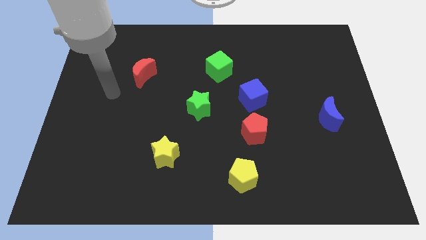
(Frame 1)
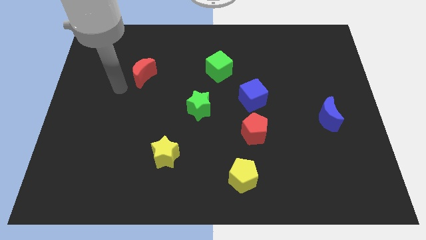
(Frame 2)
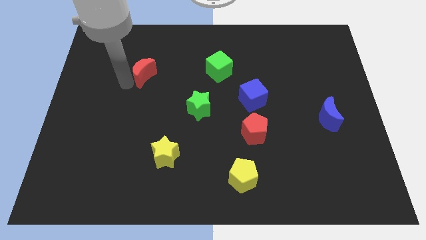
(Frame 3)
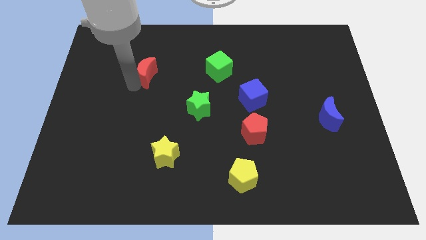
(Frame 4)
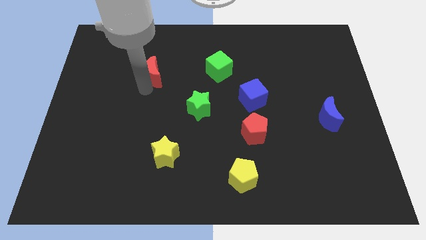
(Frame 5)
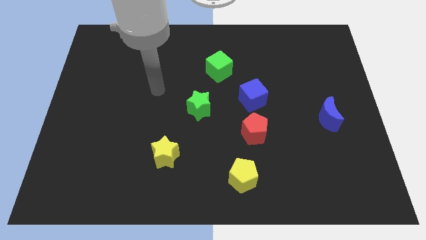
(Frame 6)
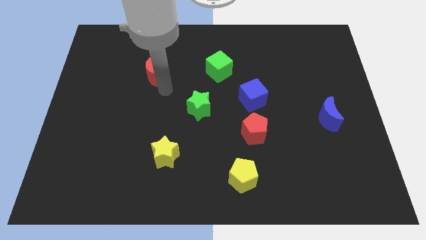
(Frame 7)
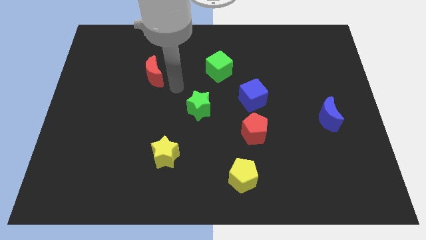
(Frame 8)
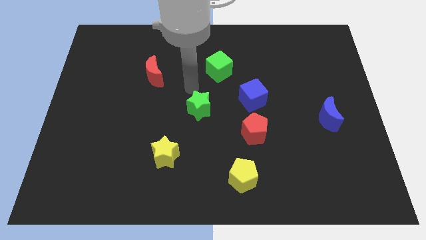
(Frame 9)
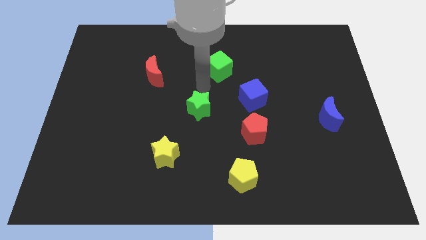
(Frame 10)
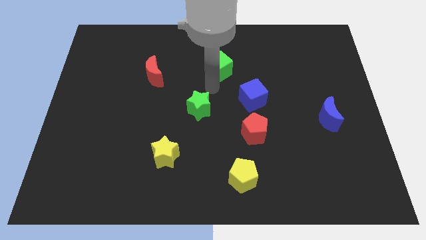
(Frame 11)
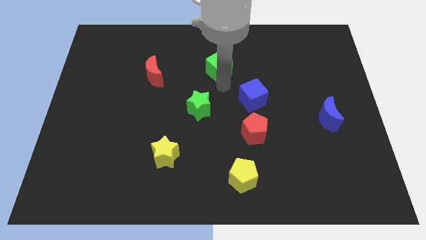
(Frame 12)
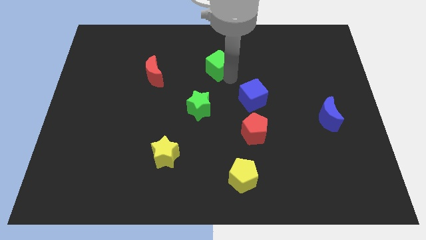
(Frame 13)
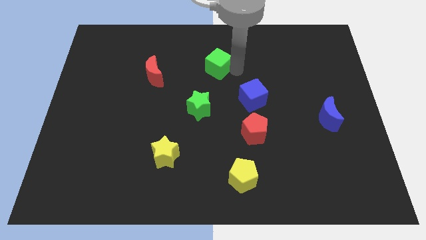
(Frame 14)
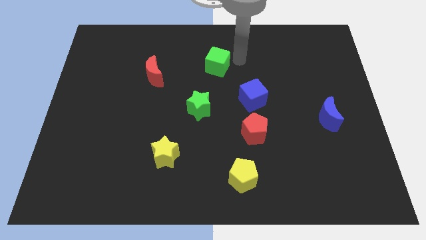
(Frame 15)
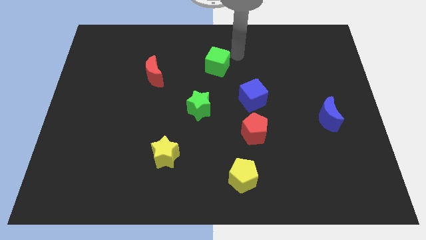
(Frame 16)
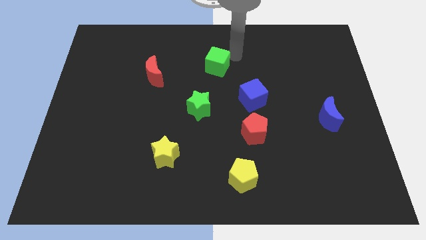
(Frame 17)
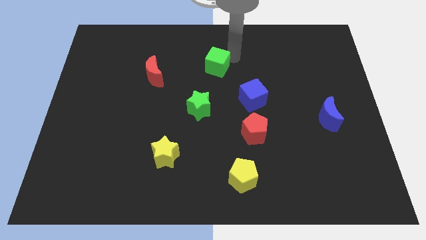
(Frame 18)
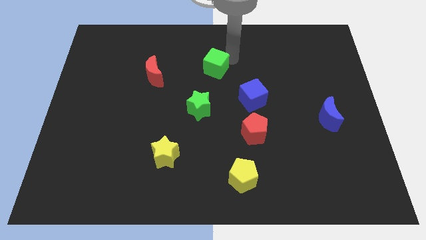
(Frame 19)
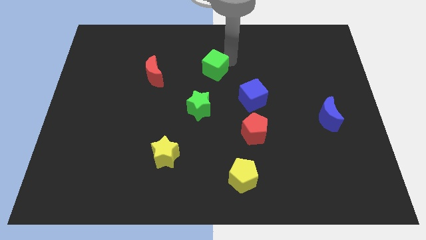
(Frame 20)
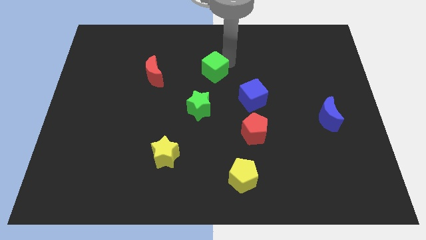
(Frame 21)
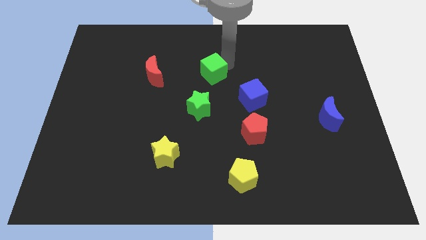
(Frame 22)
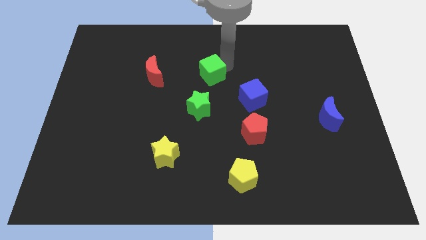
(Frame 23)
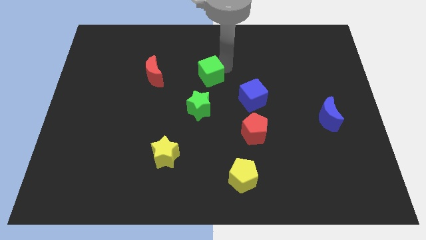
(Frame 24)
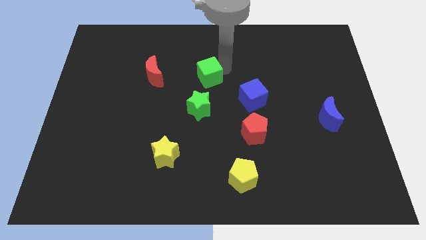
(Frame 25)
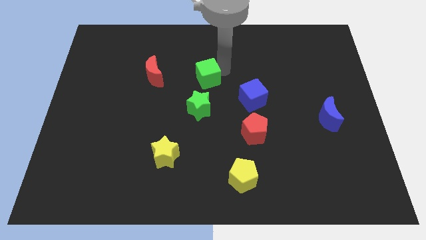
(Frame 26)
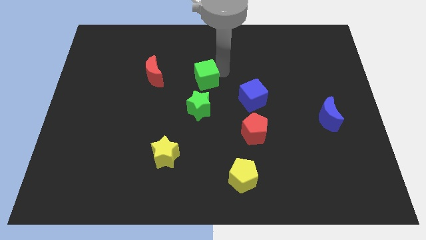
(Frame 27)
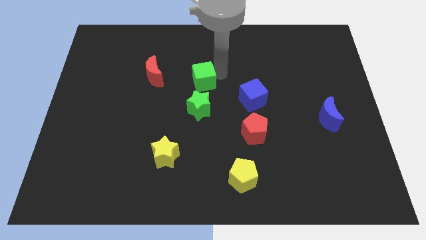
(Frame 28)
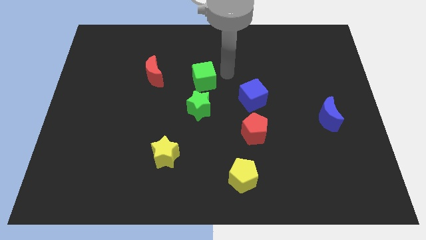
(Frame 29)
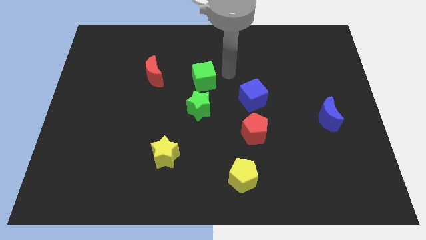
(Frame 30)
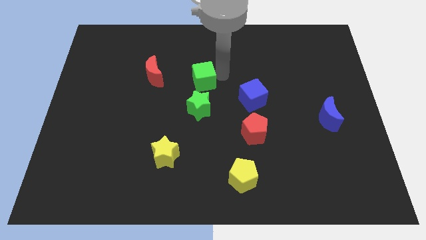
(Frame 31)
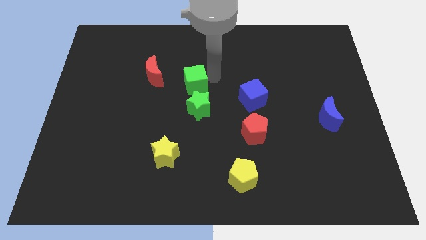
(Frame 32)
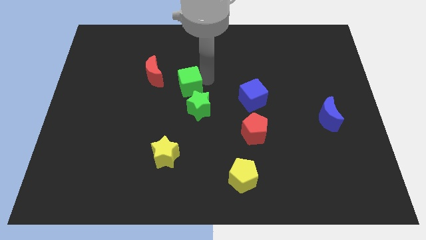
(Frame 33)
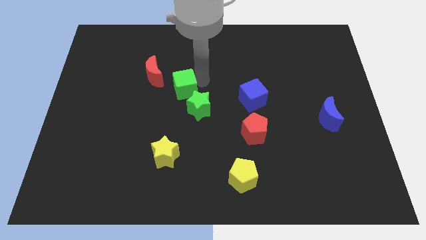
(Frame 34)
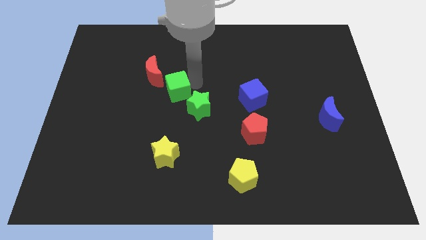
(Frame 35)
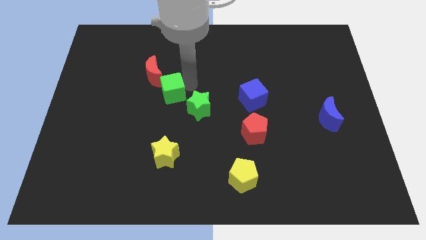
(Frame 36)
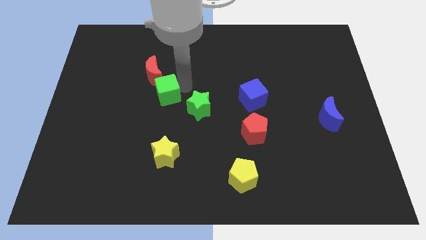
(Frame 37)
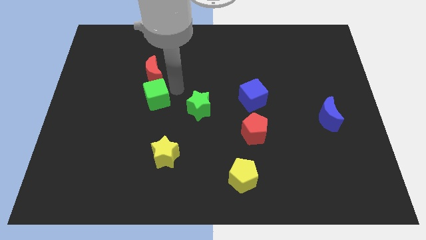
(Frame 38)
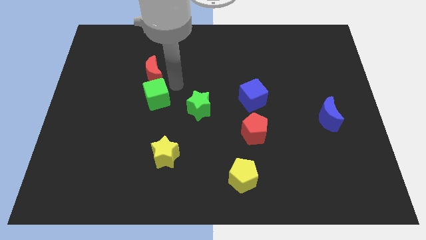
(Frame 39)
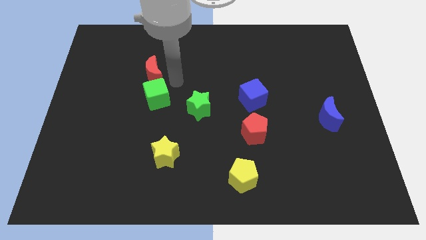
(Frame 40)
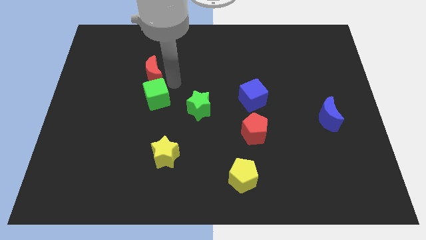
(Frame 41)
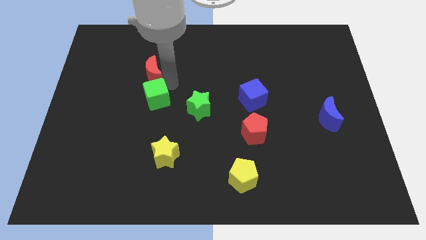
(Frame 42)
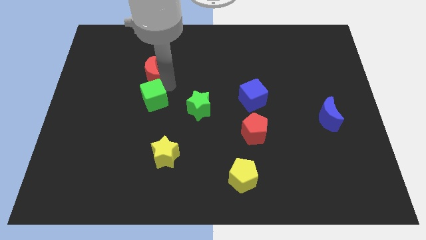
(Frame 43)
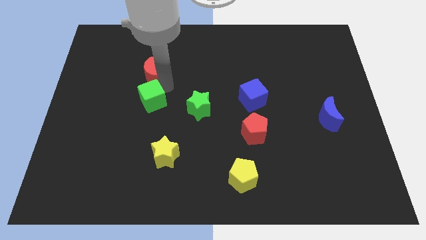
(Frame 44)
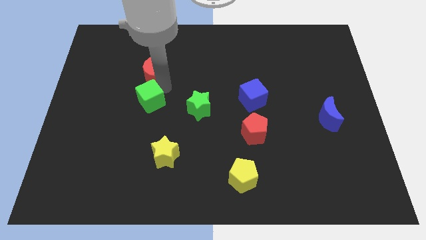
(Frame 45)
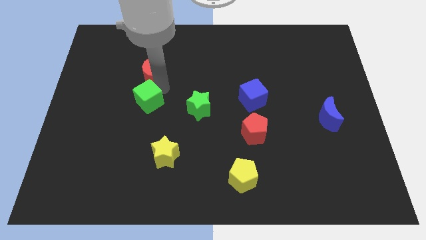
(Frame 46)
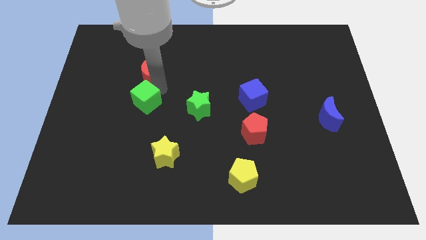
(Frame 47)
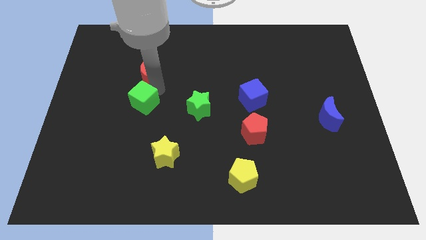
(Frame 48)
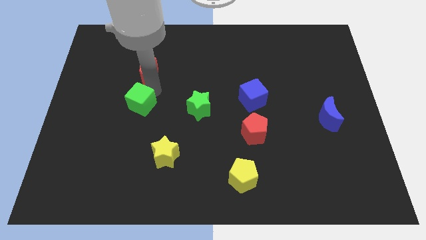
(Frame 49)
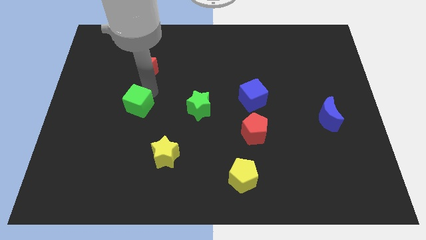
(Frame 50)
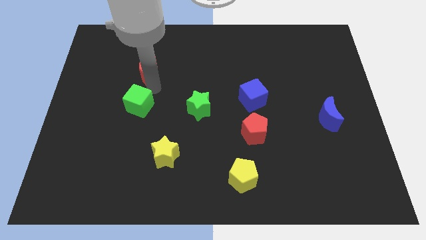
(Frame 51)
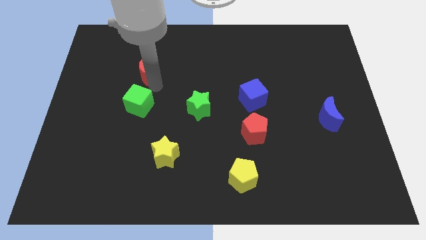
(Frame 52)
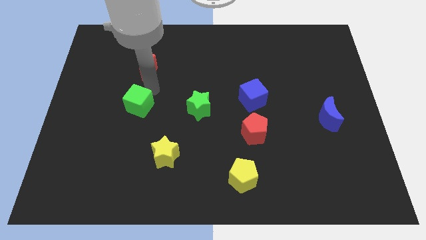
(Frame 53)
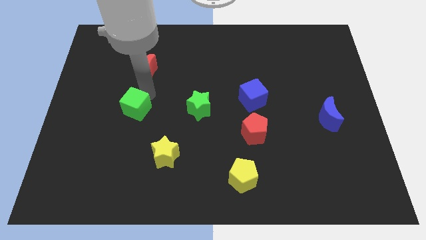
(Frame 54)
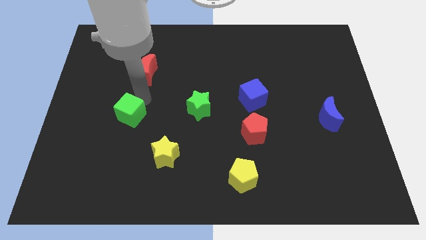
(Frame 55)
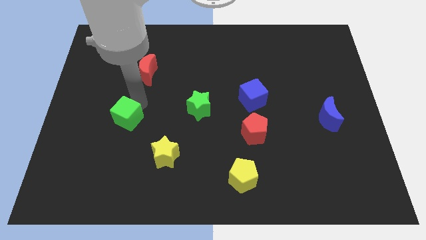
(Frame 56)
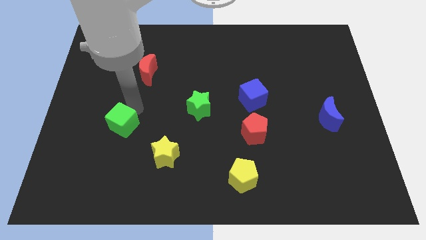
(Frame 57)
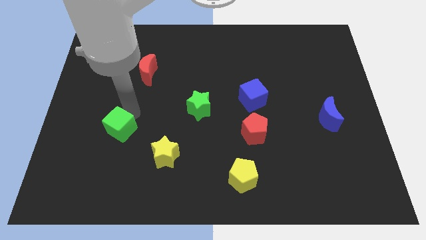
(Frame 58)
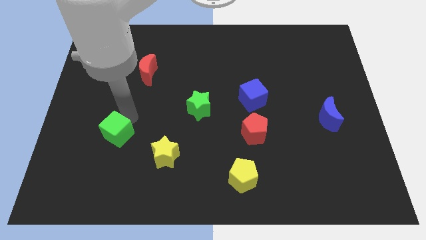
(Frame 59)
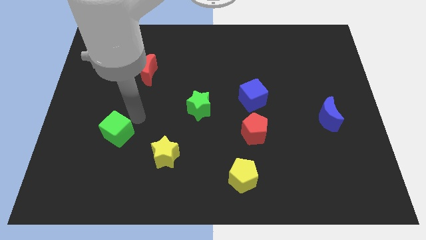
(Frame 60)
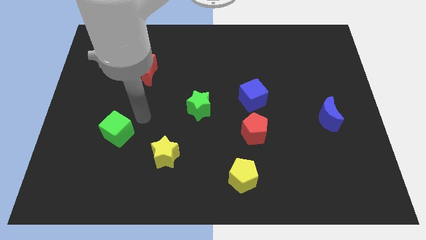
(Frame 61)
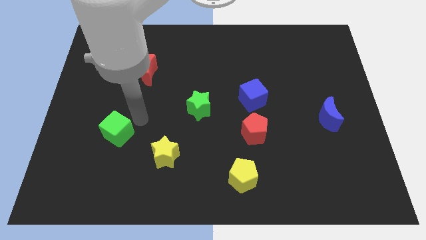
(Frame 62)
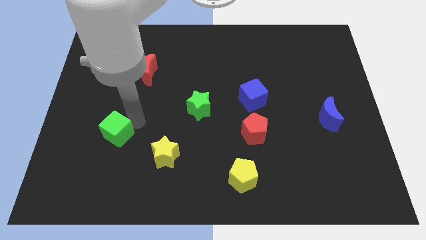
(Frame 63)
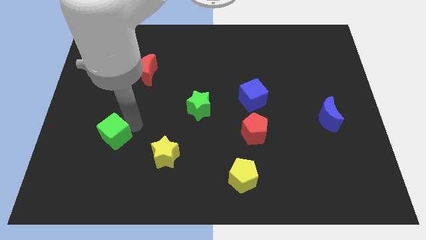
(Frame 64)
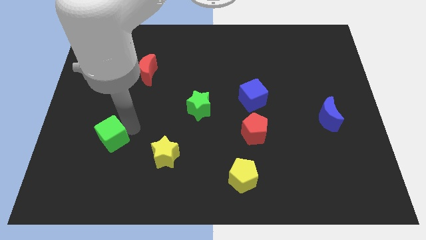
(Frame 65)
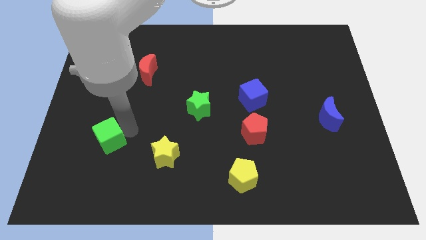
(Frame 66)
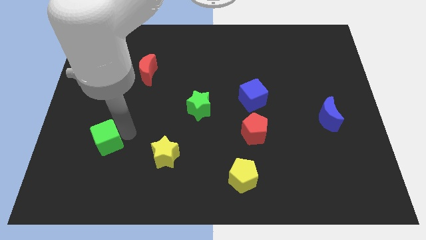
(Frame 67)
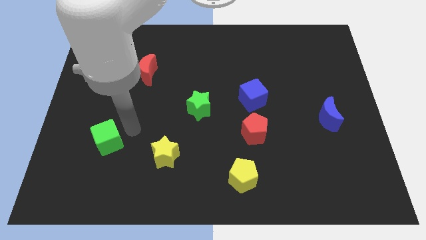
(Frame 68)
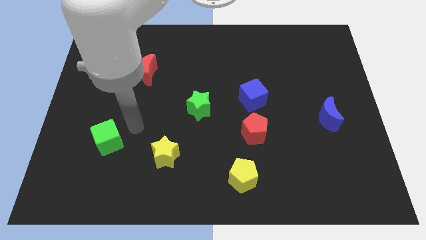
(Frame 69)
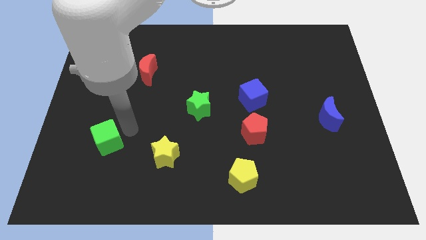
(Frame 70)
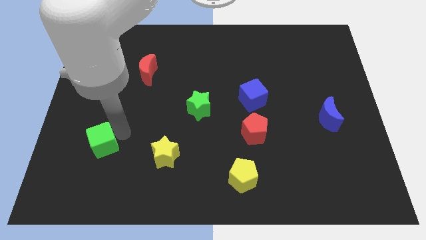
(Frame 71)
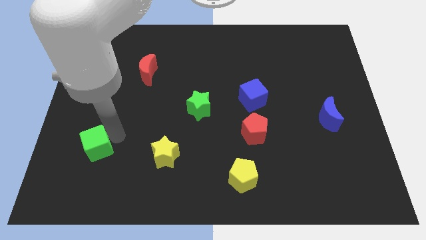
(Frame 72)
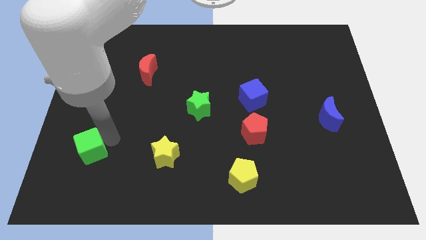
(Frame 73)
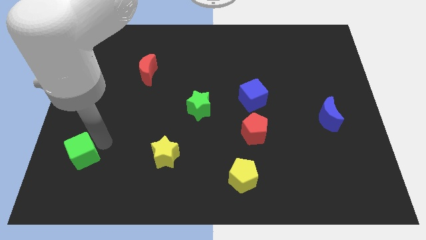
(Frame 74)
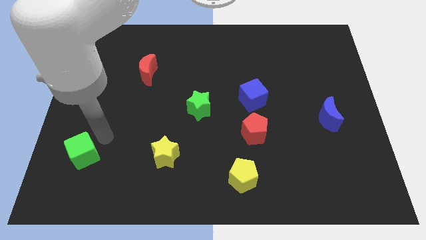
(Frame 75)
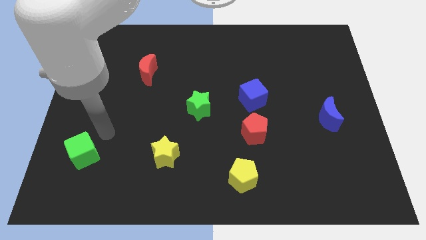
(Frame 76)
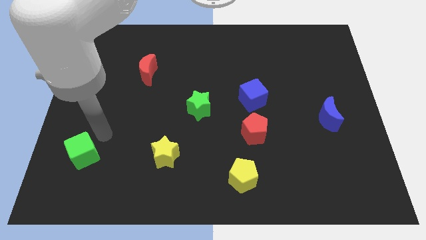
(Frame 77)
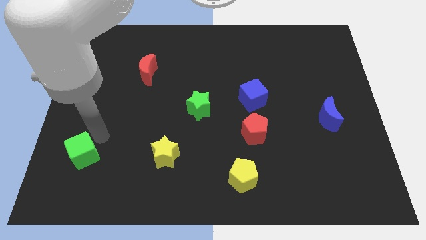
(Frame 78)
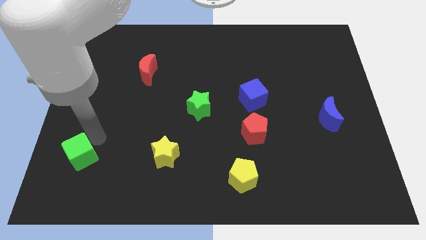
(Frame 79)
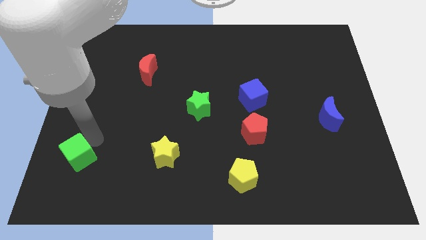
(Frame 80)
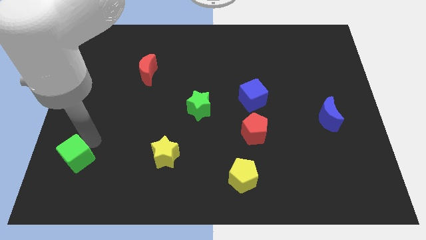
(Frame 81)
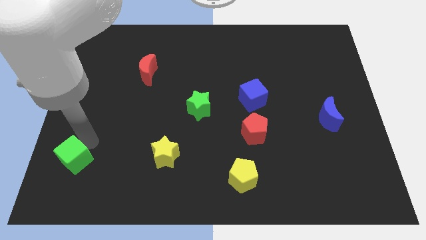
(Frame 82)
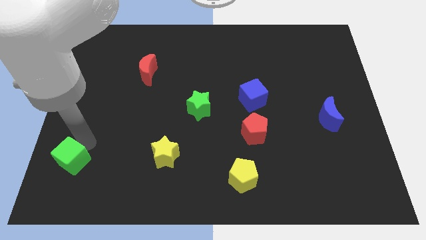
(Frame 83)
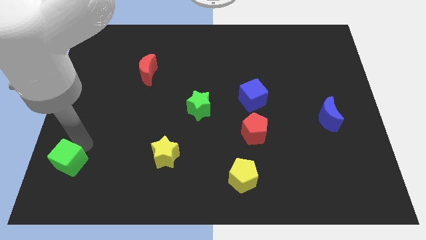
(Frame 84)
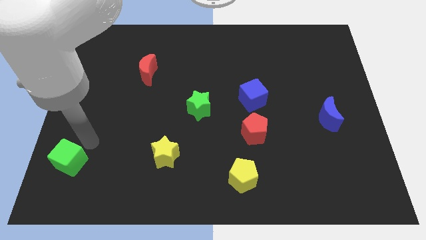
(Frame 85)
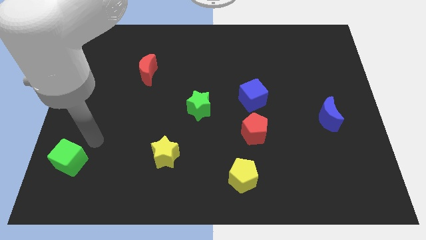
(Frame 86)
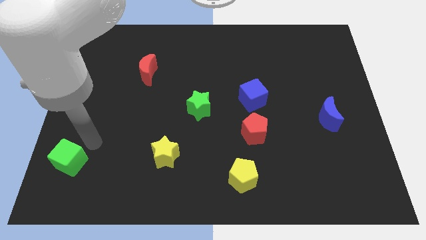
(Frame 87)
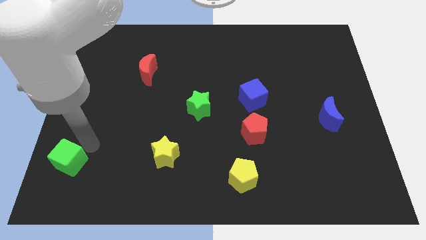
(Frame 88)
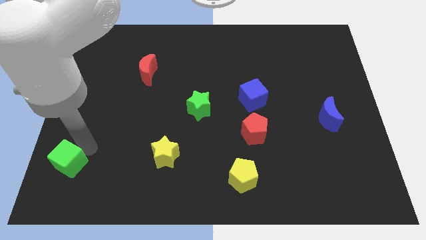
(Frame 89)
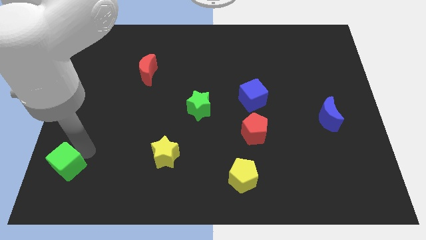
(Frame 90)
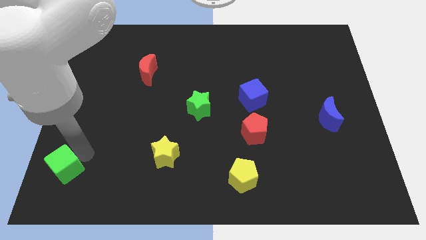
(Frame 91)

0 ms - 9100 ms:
push the green cube to the bottom left of the board
